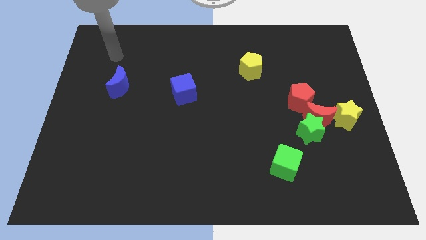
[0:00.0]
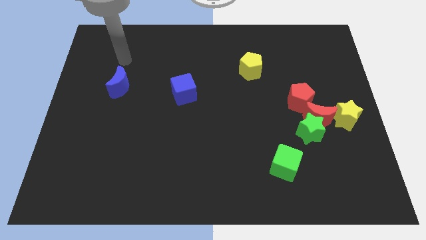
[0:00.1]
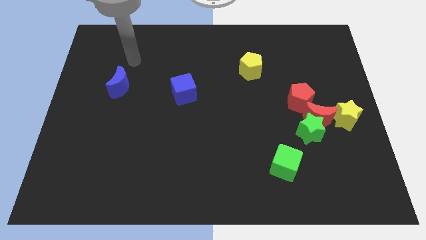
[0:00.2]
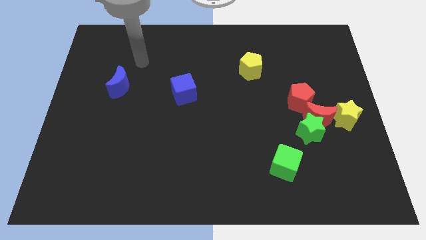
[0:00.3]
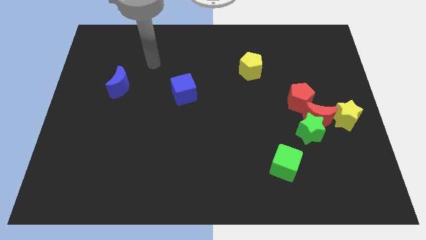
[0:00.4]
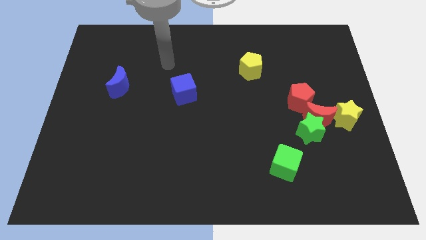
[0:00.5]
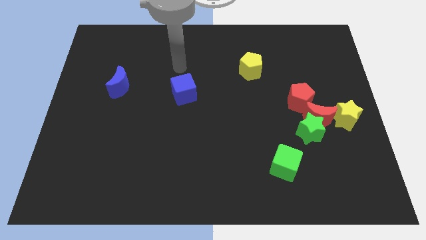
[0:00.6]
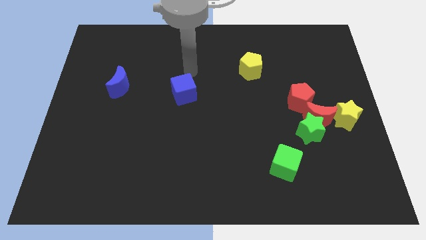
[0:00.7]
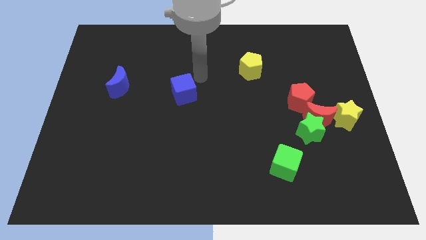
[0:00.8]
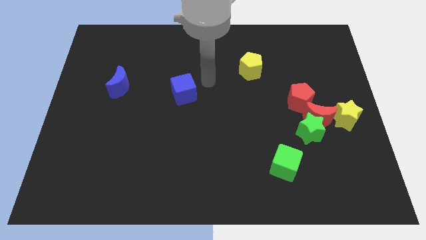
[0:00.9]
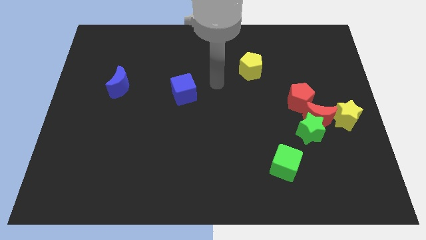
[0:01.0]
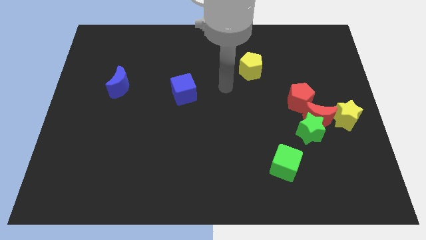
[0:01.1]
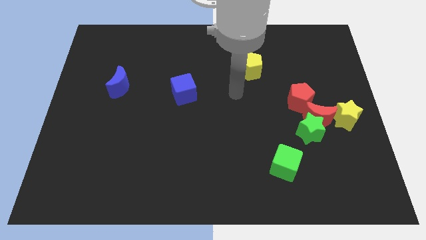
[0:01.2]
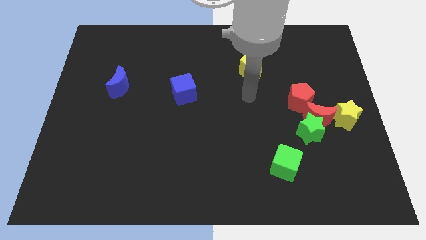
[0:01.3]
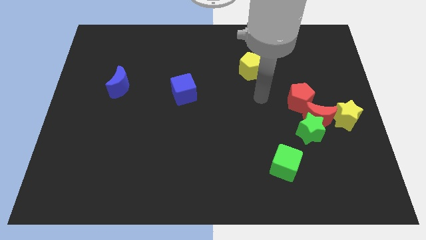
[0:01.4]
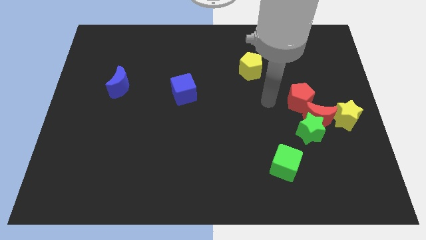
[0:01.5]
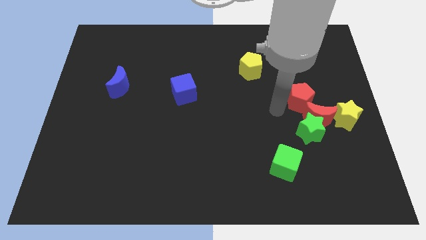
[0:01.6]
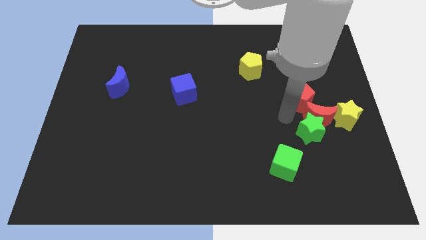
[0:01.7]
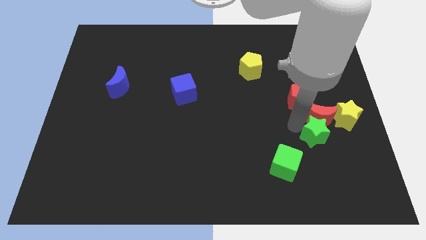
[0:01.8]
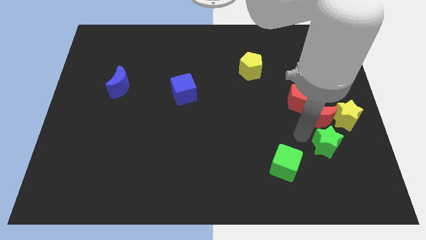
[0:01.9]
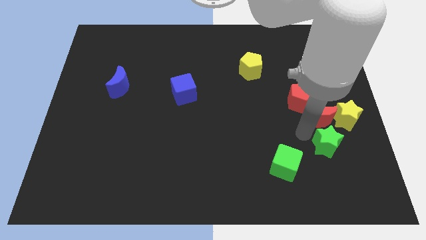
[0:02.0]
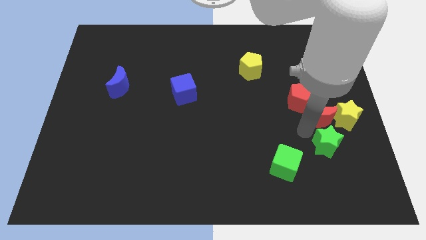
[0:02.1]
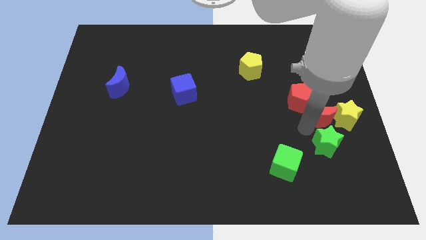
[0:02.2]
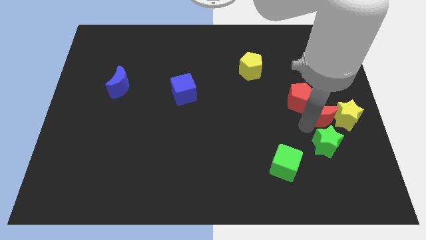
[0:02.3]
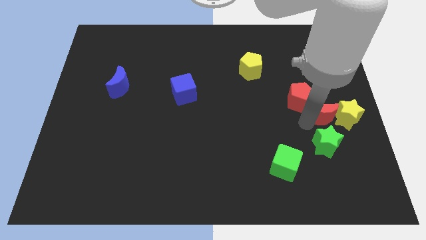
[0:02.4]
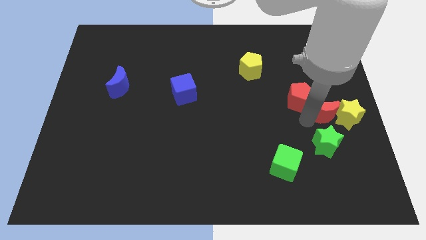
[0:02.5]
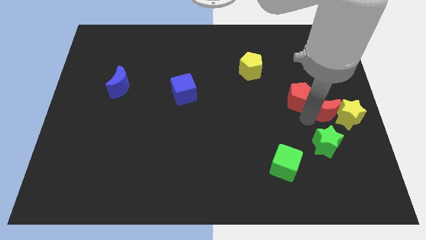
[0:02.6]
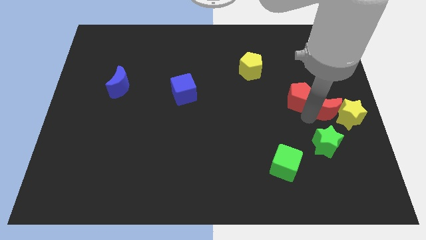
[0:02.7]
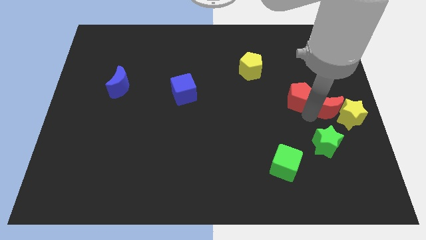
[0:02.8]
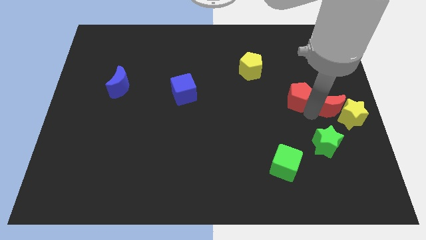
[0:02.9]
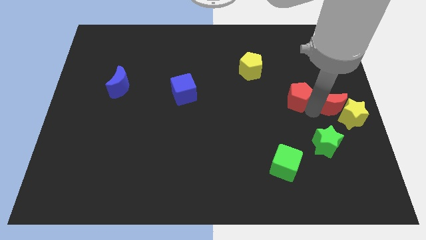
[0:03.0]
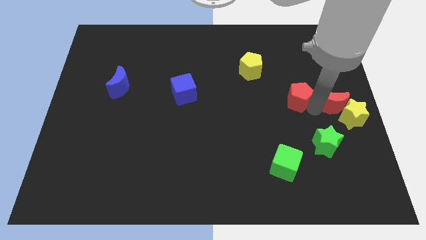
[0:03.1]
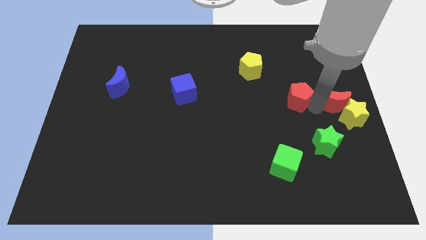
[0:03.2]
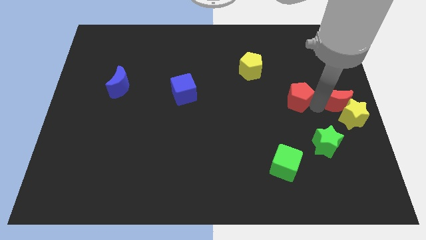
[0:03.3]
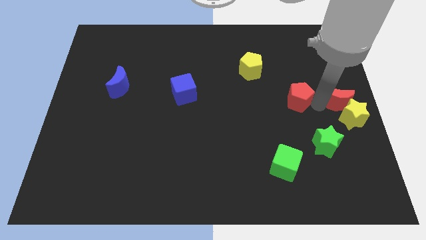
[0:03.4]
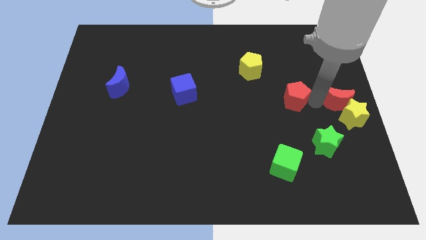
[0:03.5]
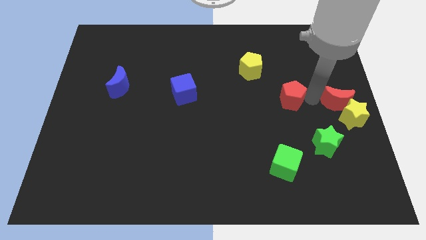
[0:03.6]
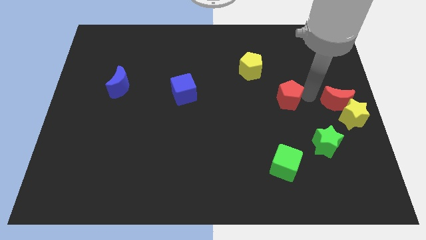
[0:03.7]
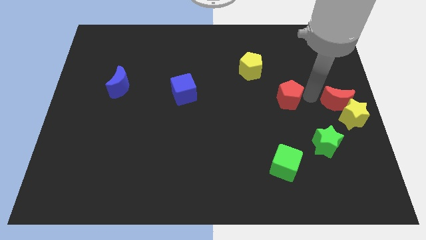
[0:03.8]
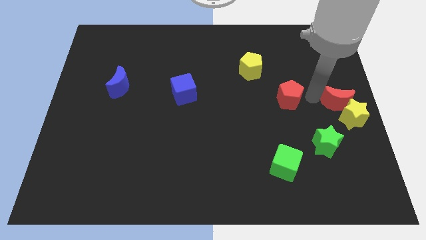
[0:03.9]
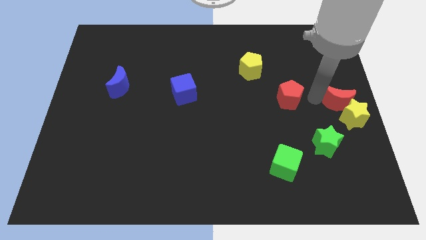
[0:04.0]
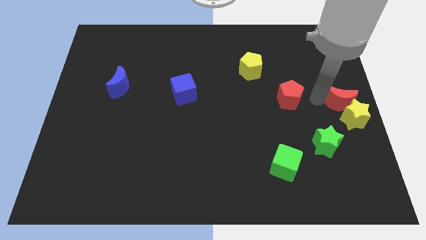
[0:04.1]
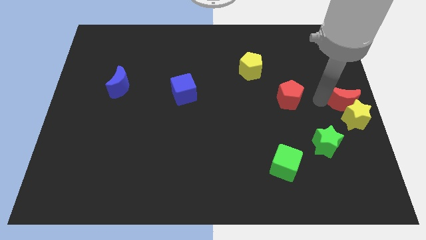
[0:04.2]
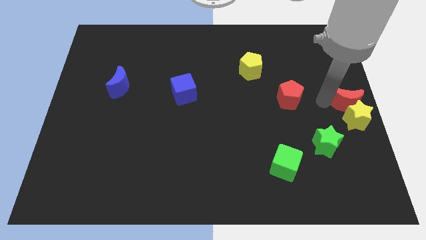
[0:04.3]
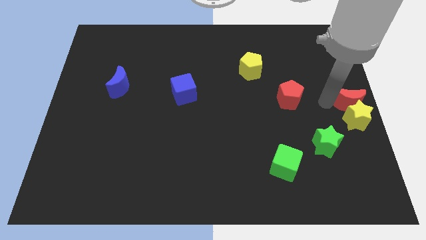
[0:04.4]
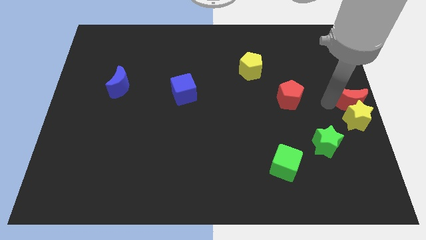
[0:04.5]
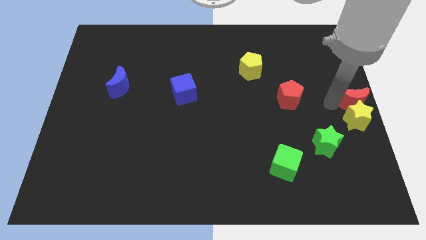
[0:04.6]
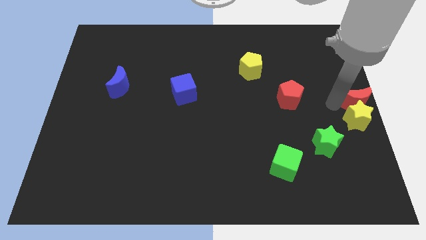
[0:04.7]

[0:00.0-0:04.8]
separate the red moon from the green star, yellow star, and red pentagon

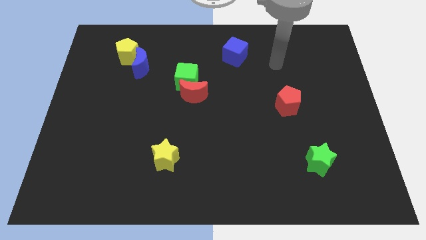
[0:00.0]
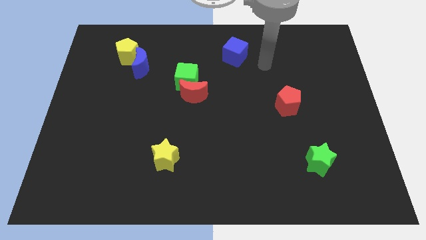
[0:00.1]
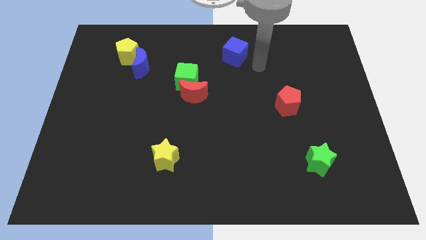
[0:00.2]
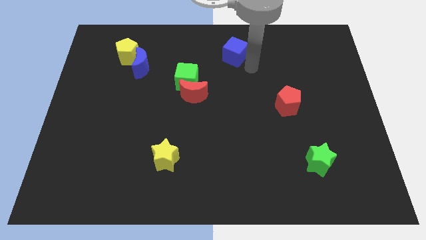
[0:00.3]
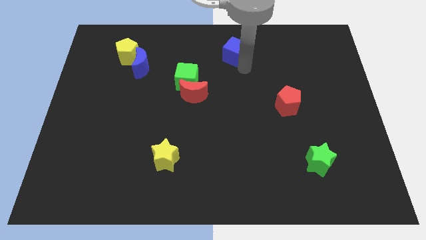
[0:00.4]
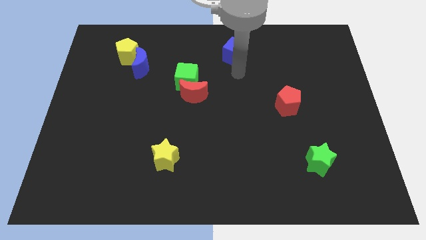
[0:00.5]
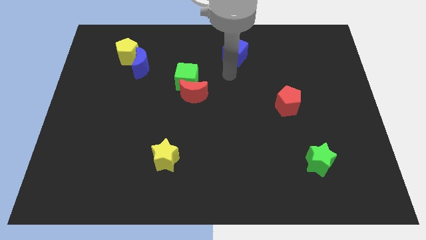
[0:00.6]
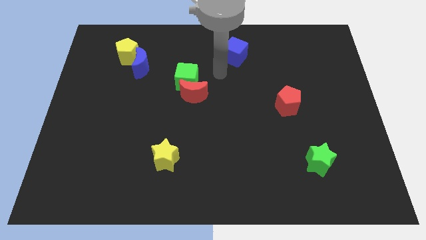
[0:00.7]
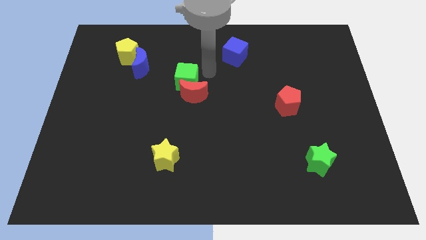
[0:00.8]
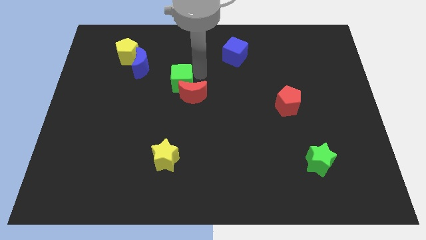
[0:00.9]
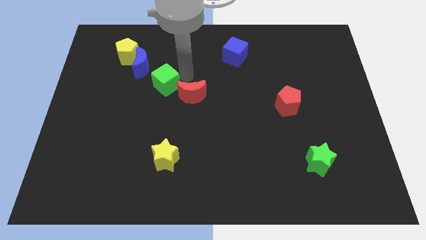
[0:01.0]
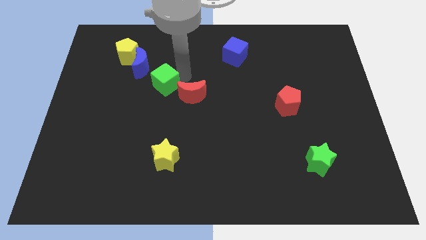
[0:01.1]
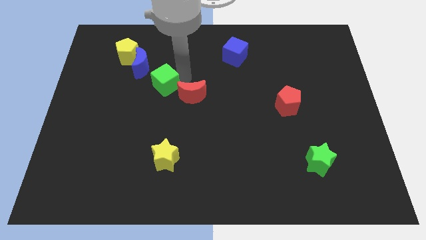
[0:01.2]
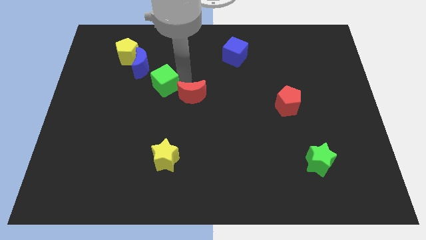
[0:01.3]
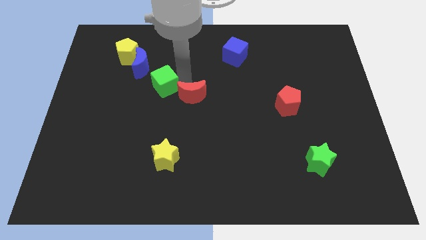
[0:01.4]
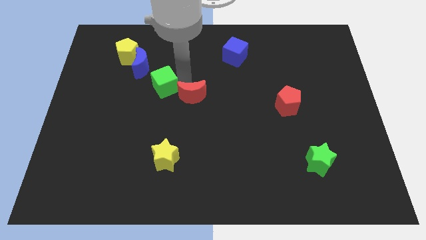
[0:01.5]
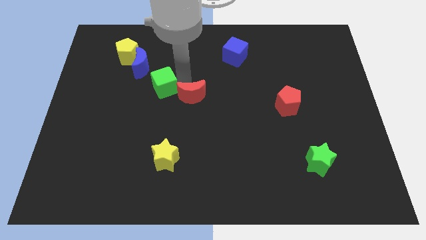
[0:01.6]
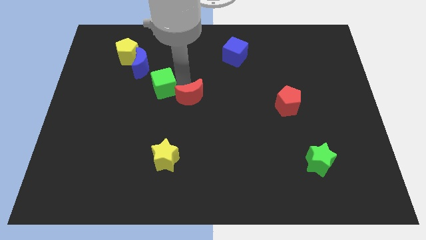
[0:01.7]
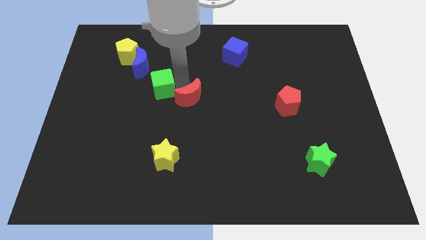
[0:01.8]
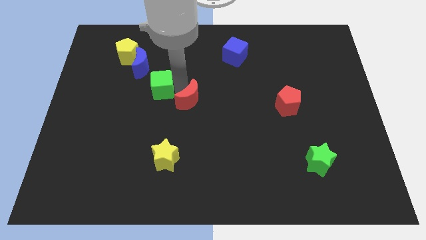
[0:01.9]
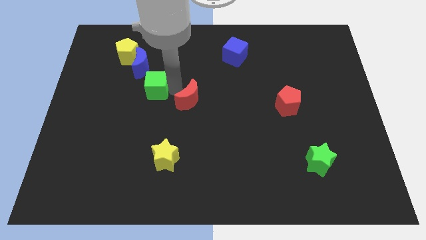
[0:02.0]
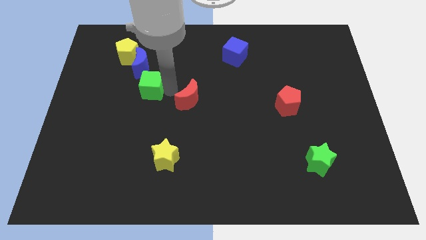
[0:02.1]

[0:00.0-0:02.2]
pull the red moon apart from the green cube

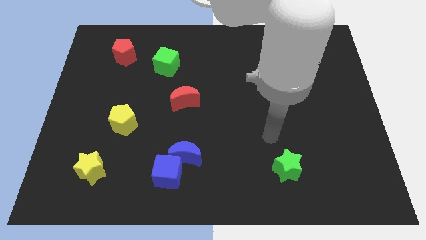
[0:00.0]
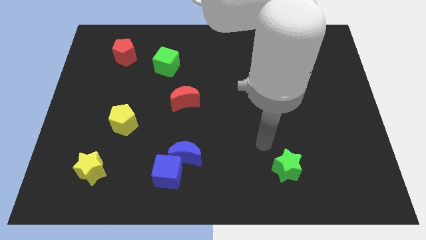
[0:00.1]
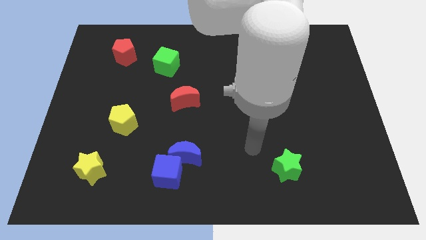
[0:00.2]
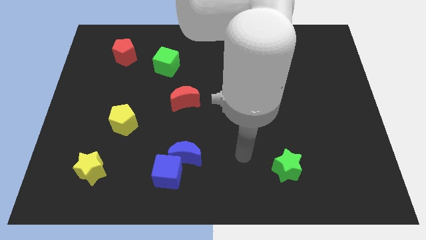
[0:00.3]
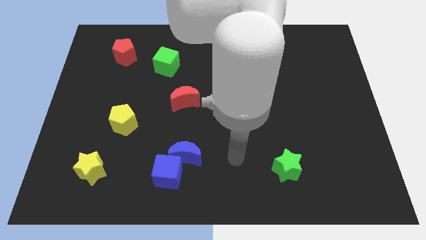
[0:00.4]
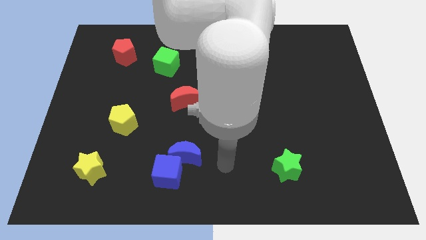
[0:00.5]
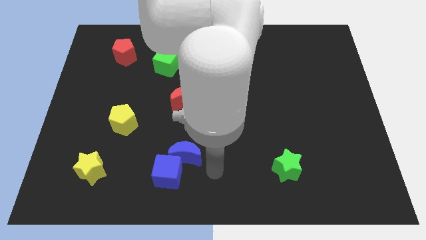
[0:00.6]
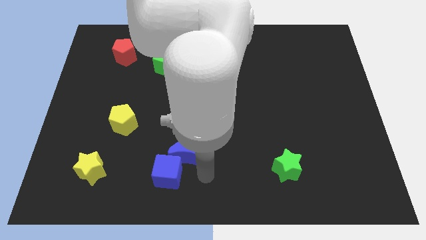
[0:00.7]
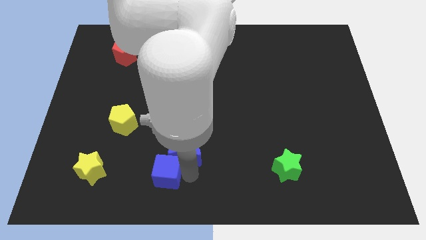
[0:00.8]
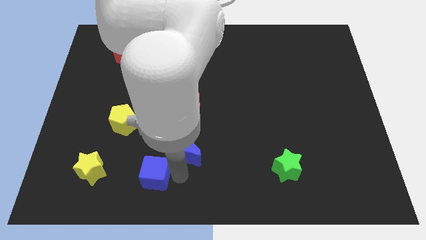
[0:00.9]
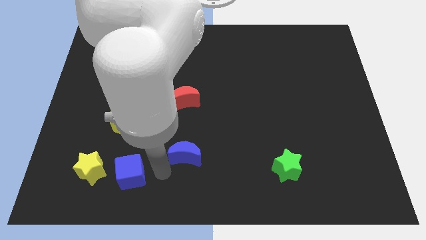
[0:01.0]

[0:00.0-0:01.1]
pull the blue moon apart from the blue cube

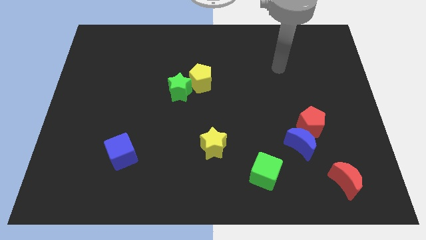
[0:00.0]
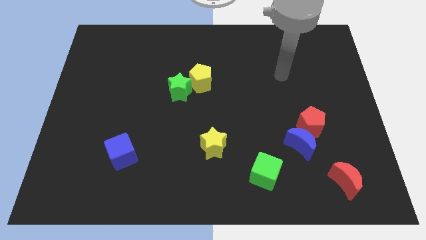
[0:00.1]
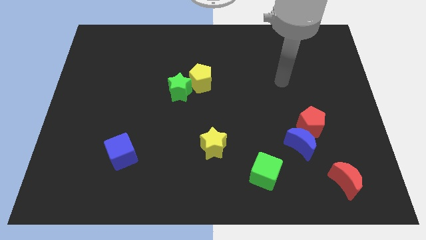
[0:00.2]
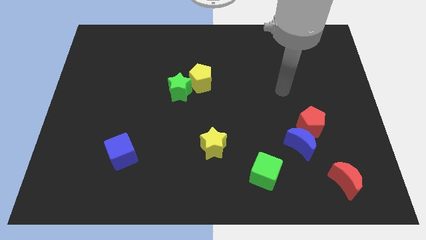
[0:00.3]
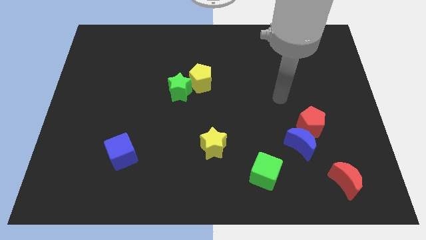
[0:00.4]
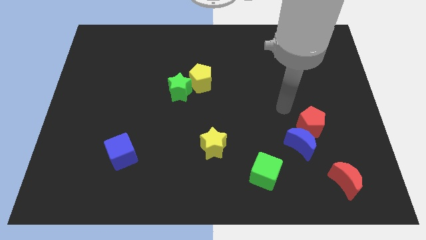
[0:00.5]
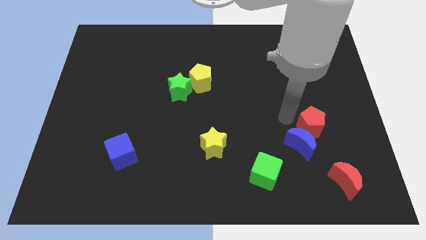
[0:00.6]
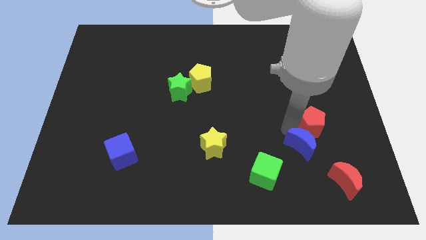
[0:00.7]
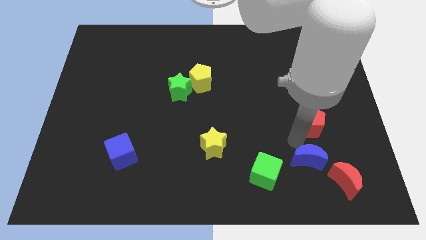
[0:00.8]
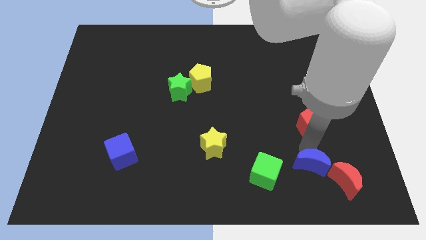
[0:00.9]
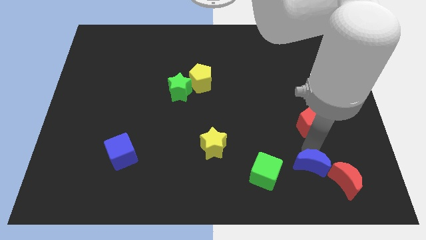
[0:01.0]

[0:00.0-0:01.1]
separate the red pentagon from the blue moon

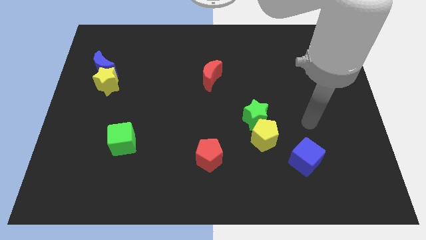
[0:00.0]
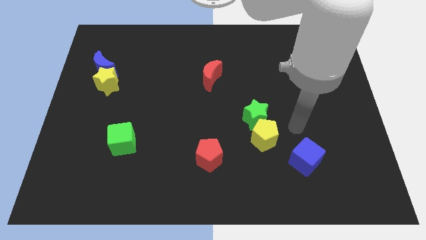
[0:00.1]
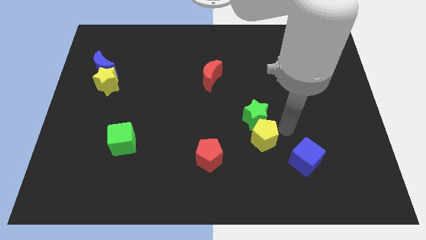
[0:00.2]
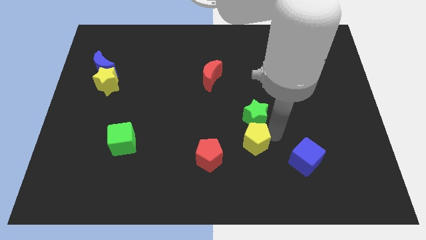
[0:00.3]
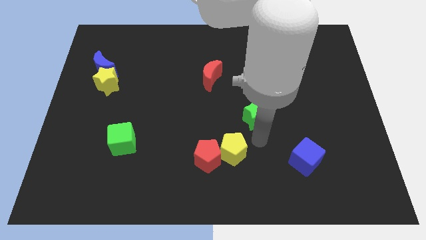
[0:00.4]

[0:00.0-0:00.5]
pull the green star apart from the yellow pentagon
